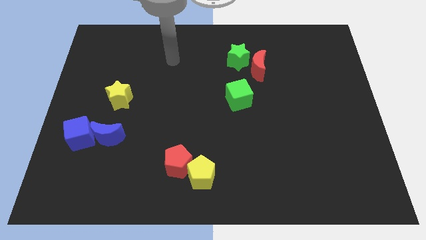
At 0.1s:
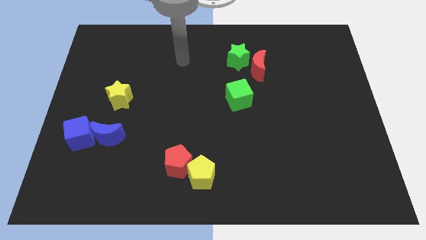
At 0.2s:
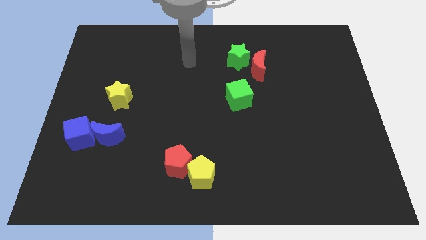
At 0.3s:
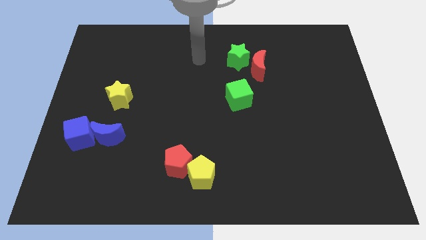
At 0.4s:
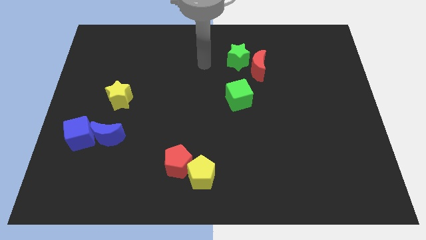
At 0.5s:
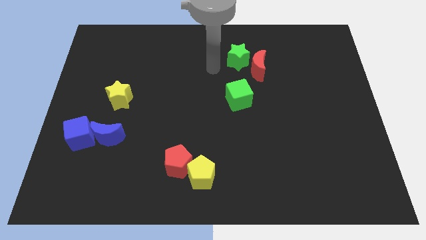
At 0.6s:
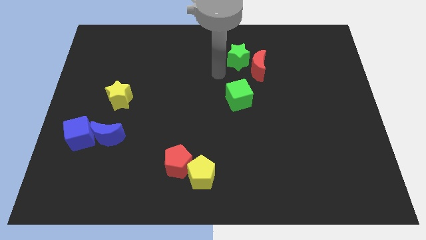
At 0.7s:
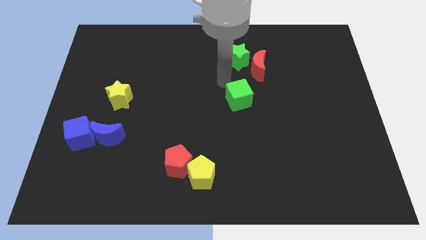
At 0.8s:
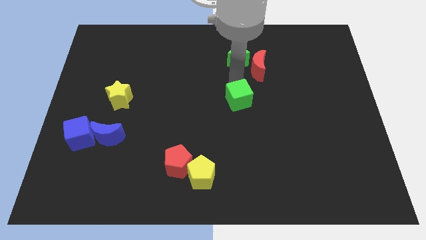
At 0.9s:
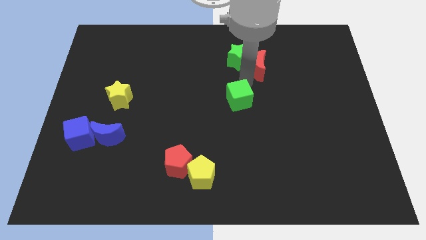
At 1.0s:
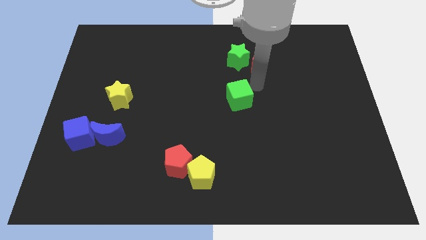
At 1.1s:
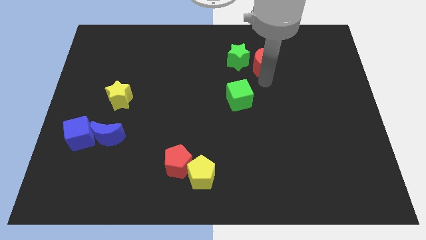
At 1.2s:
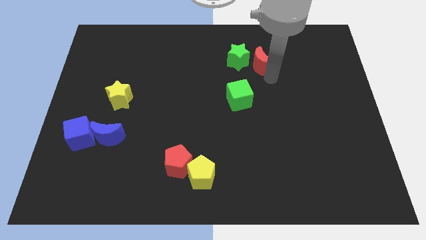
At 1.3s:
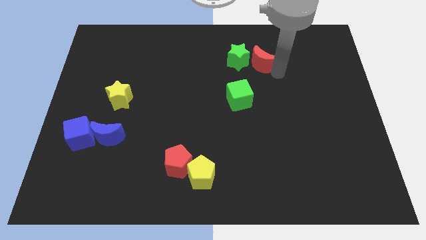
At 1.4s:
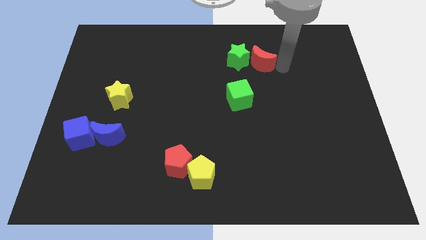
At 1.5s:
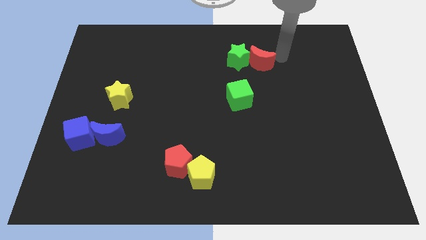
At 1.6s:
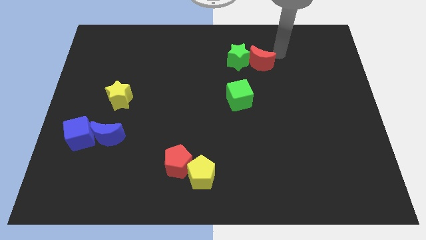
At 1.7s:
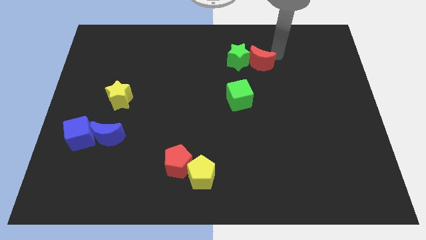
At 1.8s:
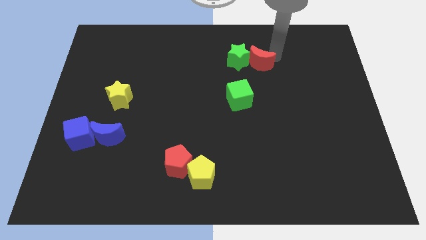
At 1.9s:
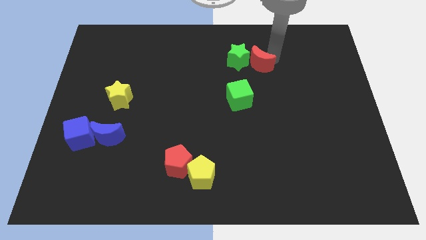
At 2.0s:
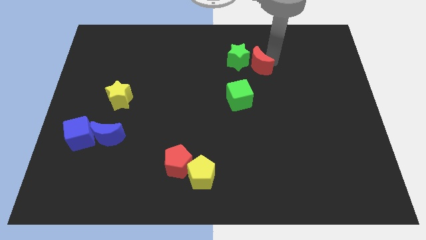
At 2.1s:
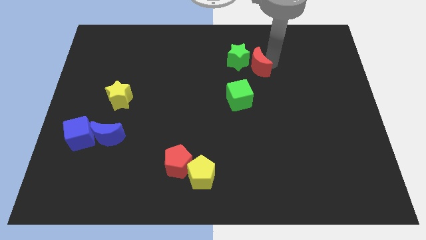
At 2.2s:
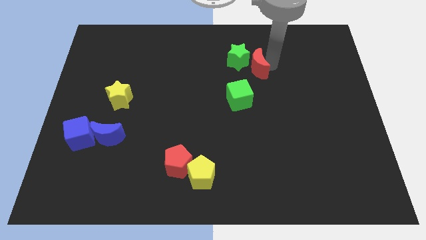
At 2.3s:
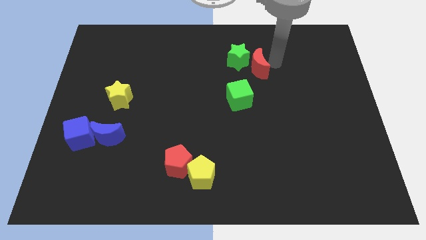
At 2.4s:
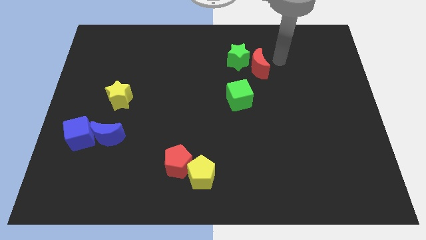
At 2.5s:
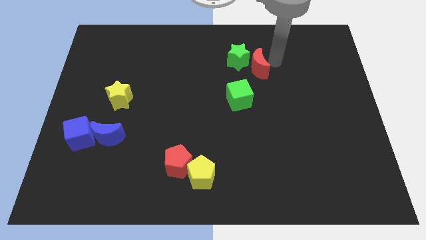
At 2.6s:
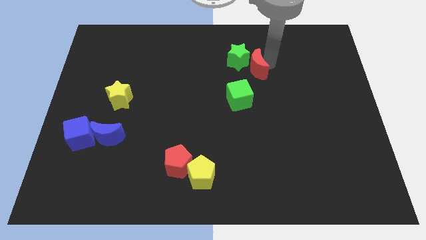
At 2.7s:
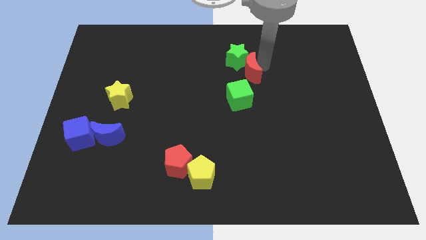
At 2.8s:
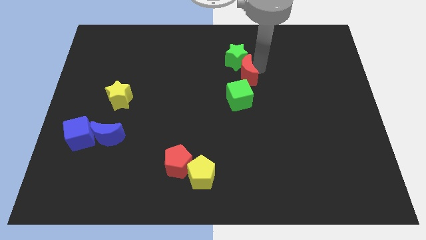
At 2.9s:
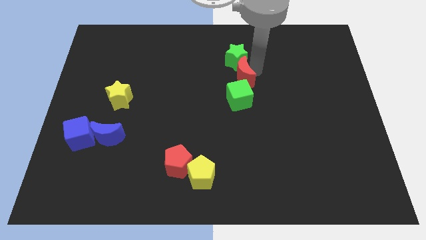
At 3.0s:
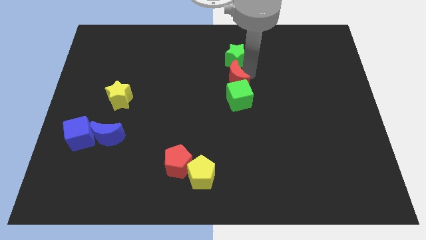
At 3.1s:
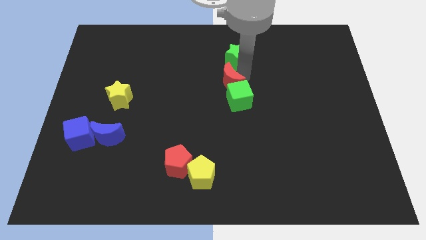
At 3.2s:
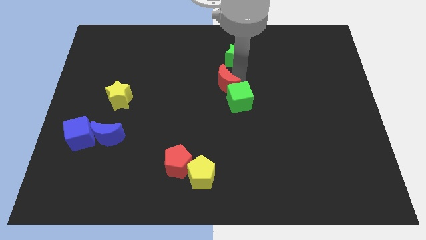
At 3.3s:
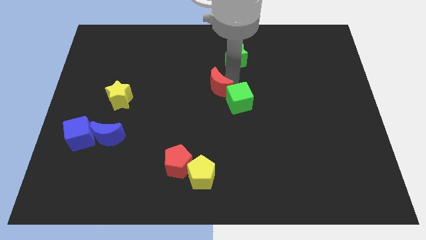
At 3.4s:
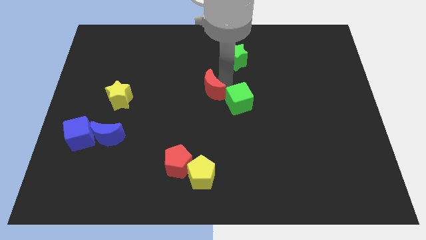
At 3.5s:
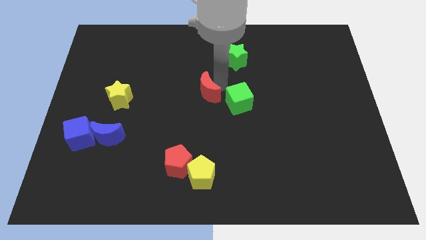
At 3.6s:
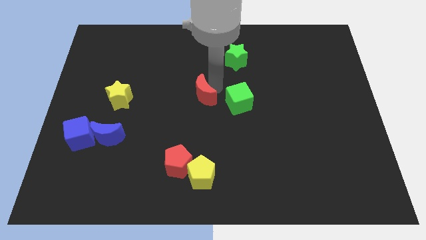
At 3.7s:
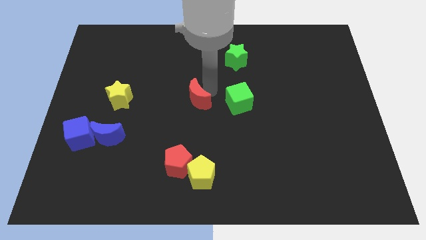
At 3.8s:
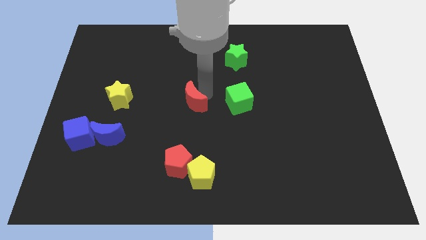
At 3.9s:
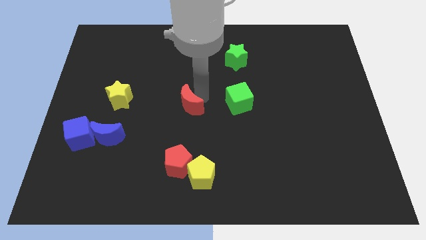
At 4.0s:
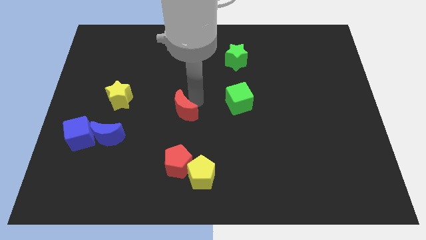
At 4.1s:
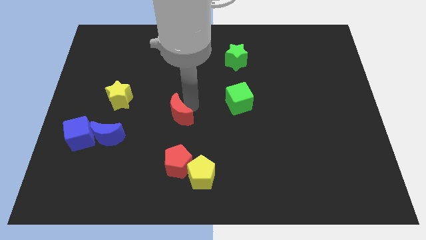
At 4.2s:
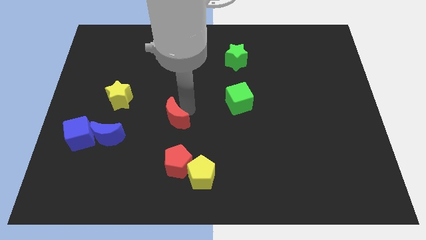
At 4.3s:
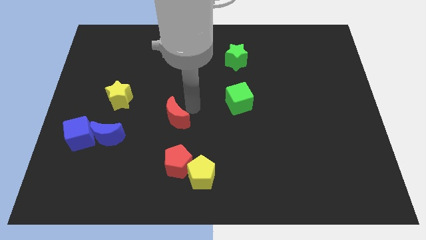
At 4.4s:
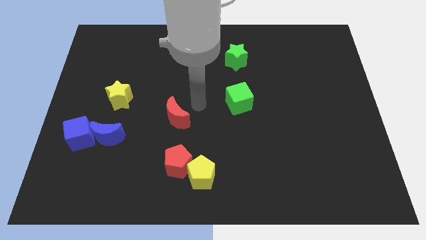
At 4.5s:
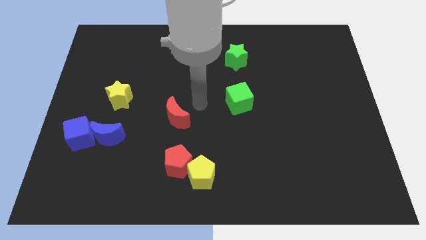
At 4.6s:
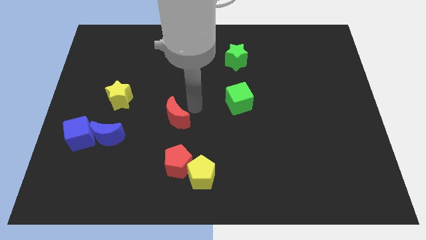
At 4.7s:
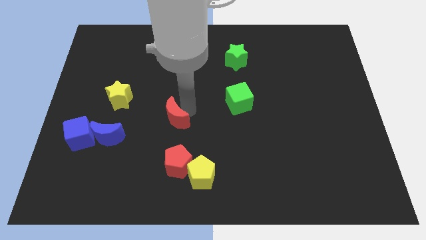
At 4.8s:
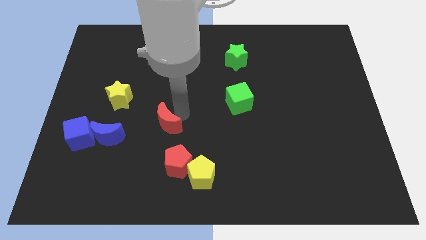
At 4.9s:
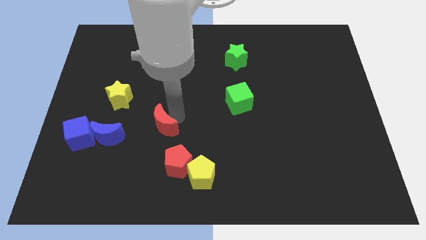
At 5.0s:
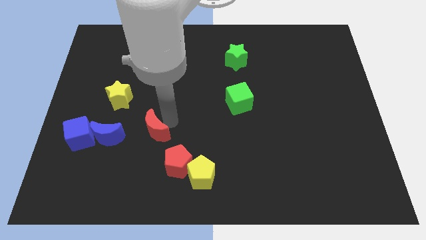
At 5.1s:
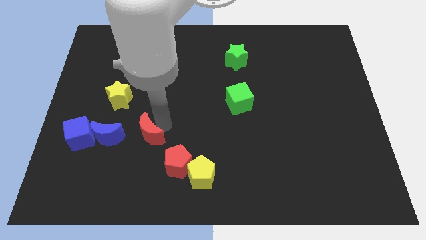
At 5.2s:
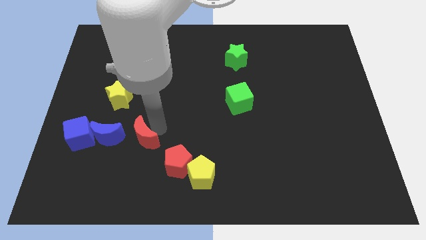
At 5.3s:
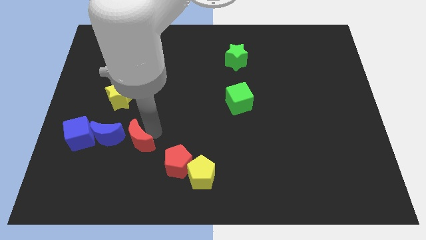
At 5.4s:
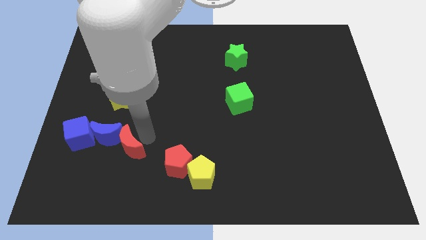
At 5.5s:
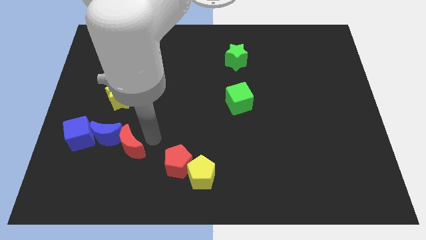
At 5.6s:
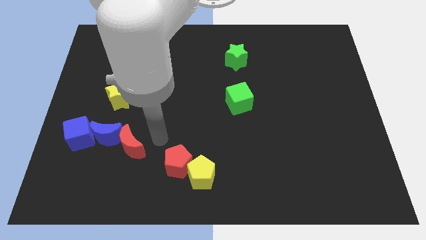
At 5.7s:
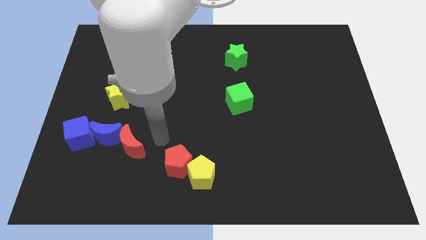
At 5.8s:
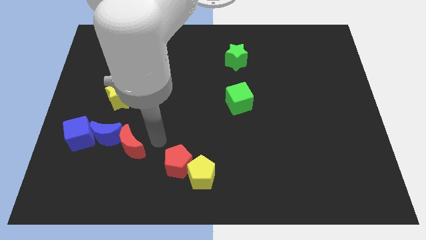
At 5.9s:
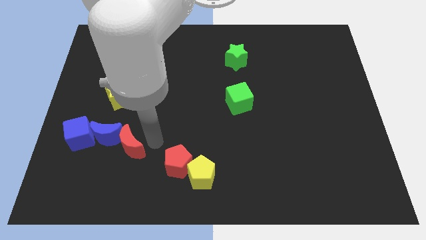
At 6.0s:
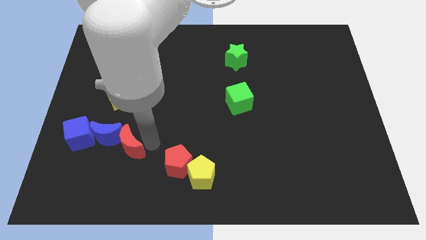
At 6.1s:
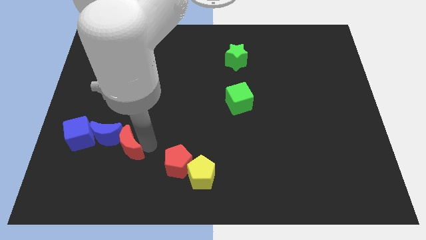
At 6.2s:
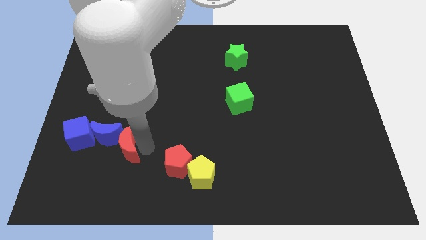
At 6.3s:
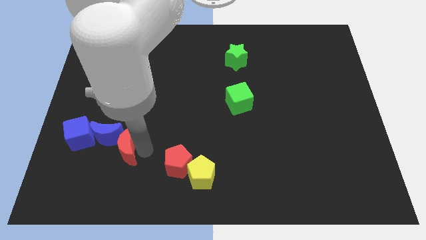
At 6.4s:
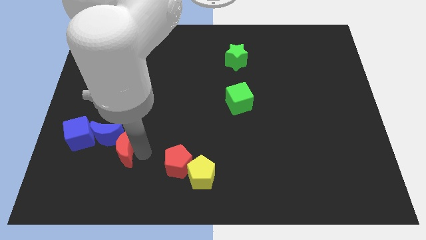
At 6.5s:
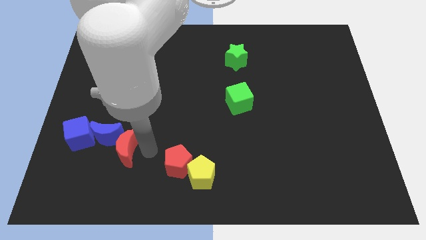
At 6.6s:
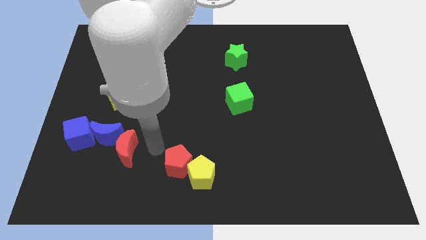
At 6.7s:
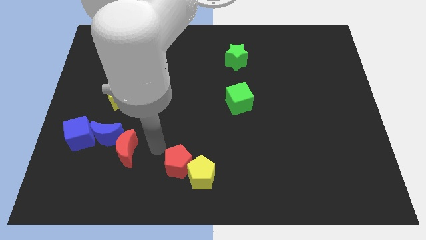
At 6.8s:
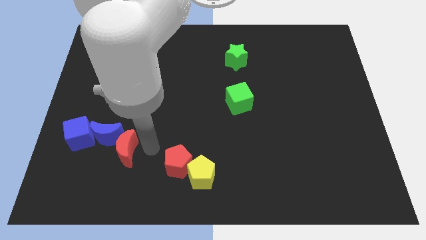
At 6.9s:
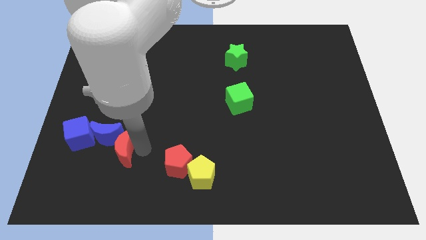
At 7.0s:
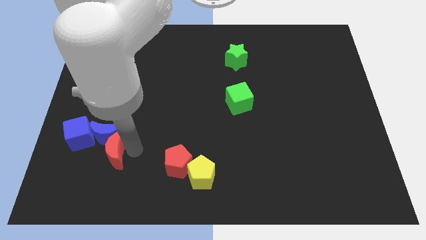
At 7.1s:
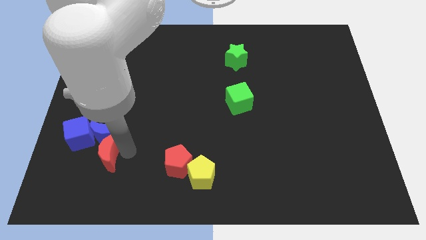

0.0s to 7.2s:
move the red moon to the bottom left side of the blue moon
